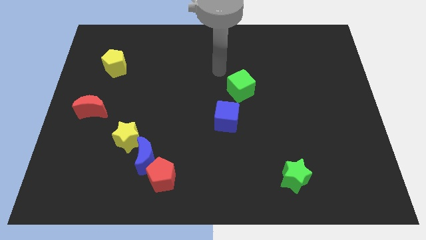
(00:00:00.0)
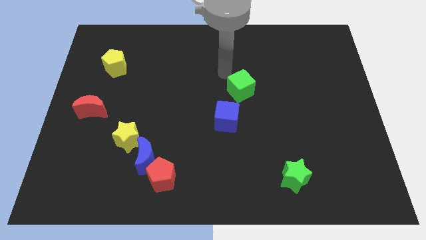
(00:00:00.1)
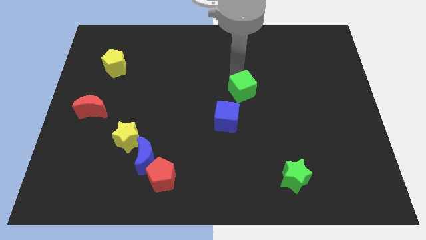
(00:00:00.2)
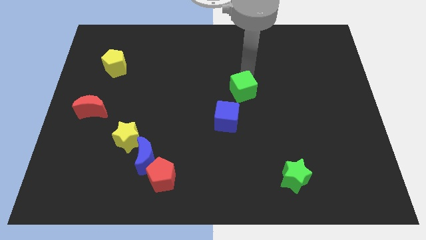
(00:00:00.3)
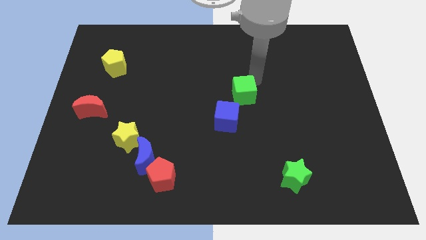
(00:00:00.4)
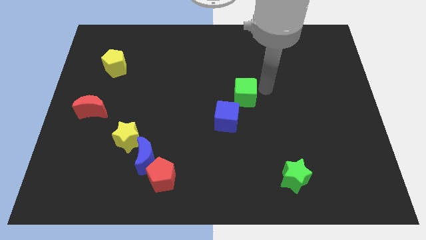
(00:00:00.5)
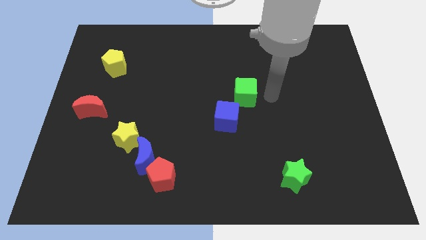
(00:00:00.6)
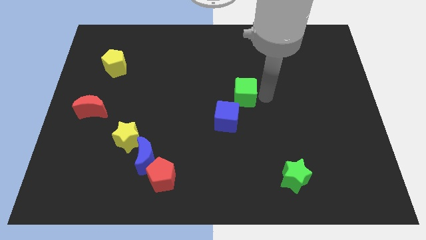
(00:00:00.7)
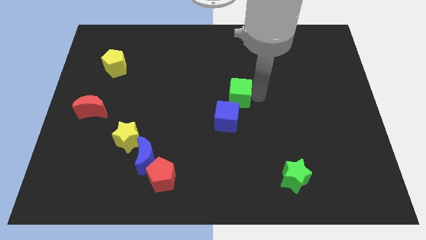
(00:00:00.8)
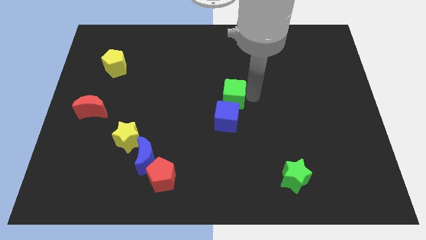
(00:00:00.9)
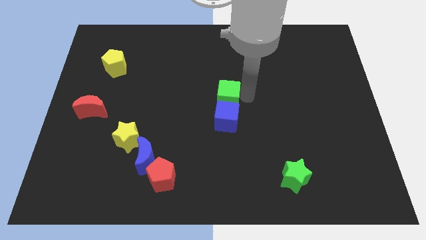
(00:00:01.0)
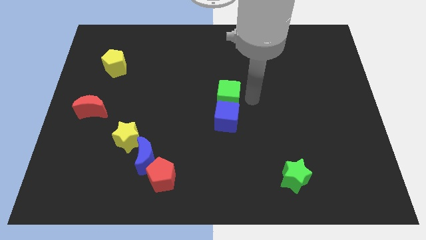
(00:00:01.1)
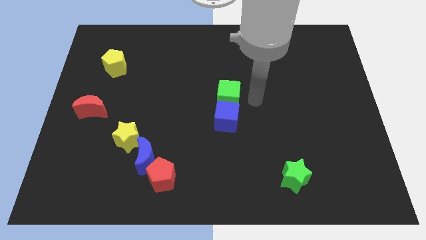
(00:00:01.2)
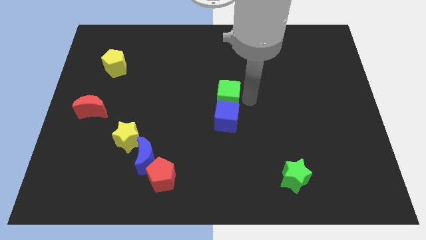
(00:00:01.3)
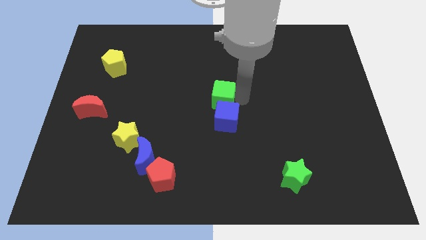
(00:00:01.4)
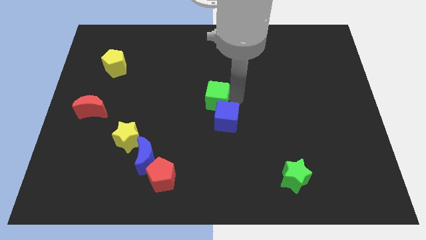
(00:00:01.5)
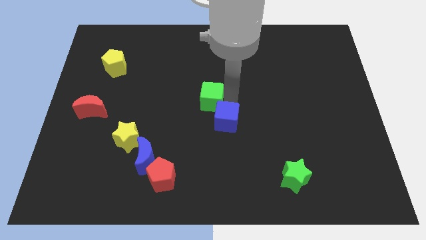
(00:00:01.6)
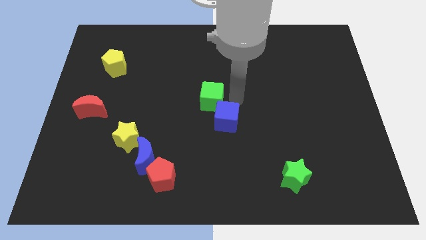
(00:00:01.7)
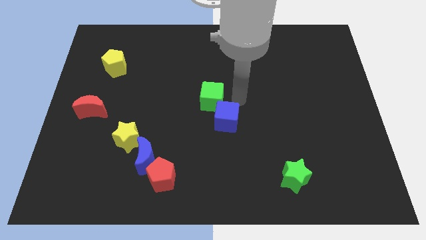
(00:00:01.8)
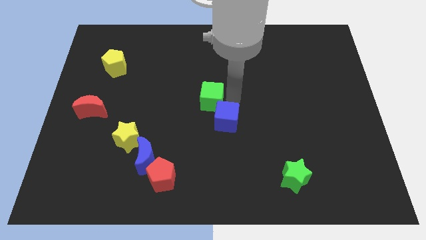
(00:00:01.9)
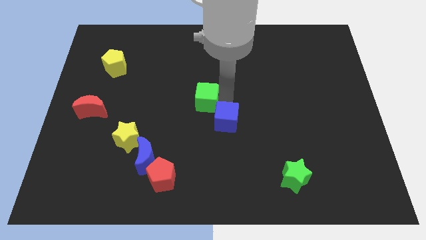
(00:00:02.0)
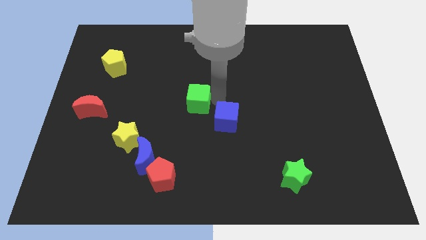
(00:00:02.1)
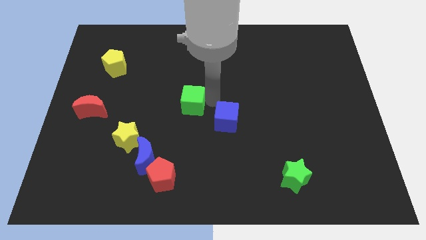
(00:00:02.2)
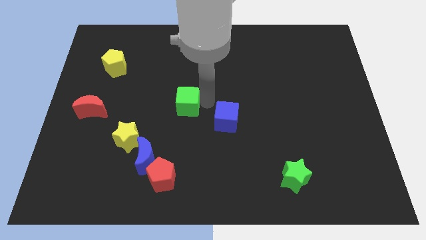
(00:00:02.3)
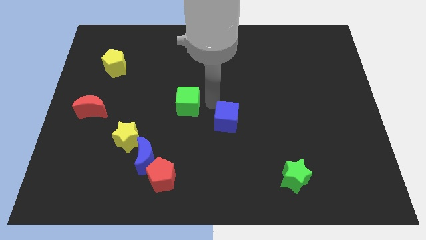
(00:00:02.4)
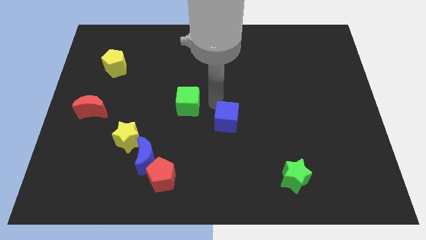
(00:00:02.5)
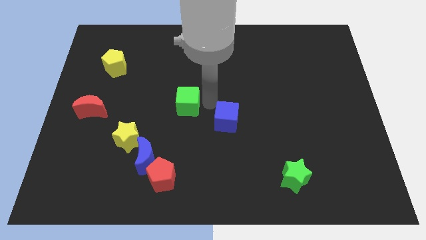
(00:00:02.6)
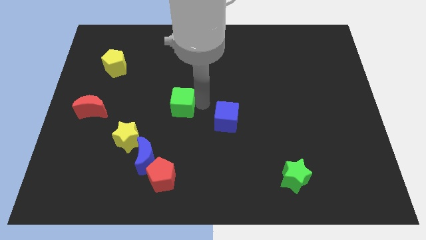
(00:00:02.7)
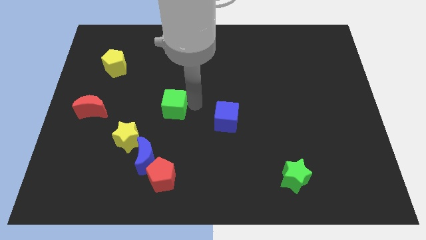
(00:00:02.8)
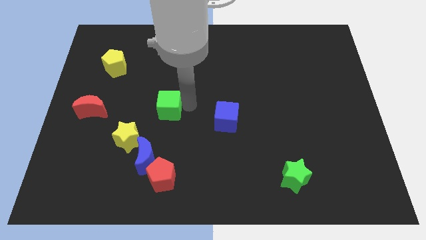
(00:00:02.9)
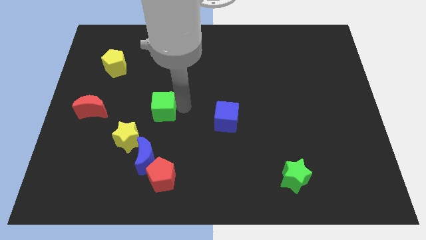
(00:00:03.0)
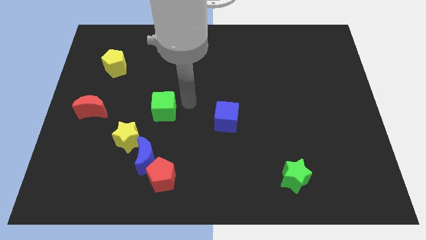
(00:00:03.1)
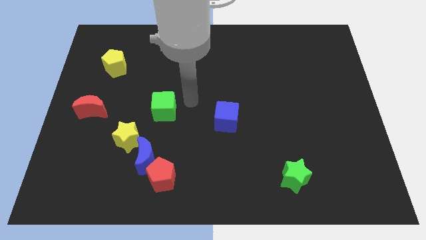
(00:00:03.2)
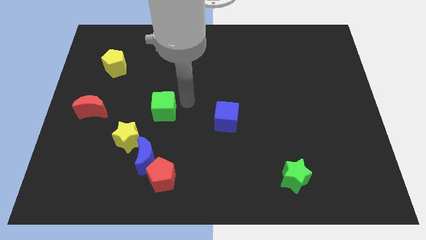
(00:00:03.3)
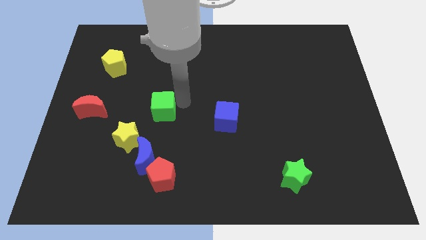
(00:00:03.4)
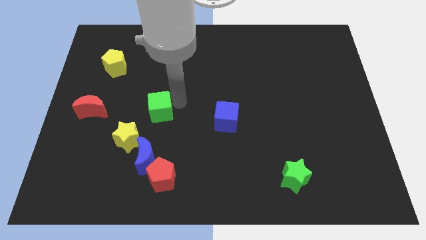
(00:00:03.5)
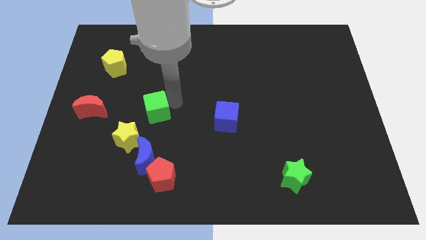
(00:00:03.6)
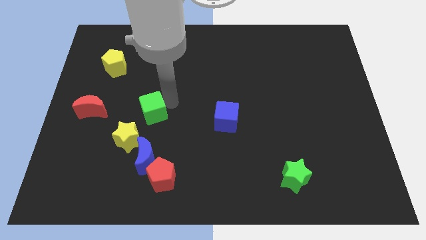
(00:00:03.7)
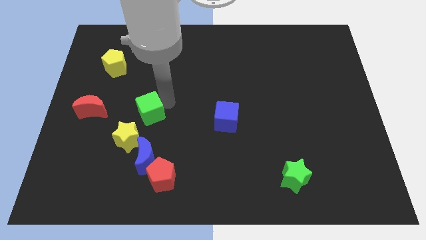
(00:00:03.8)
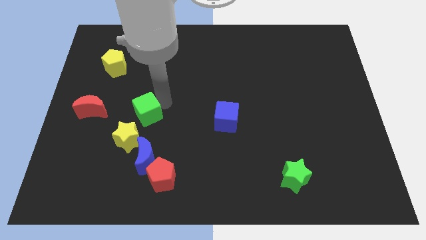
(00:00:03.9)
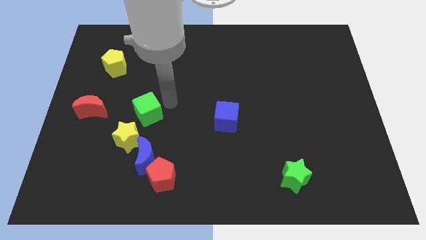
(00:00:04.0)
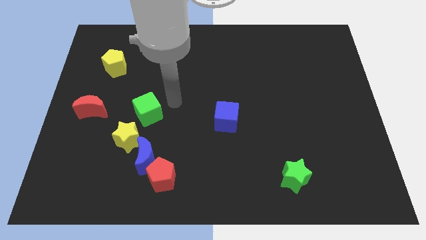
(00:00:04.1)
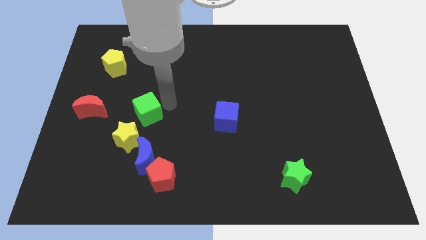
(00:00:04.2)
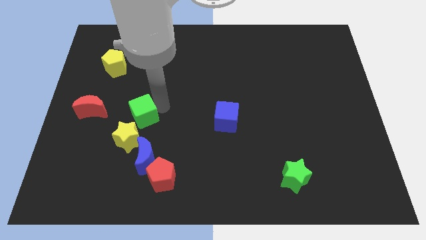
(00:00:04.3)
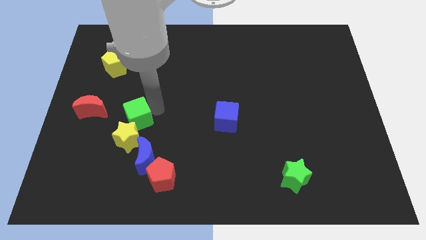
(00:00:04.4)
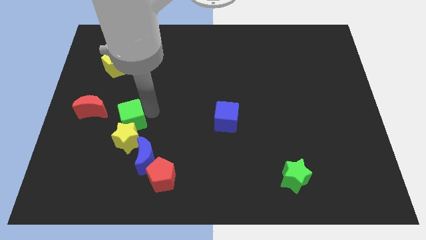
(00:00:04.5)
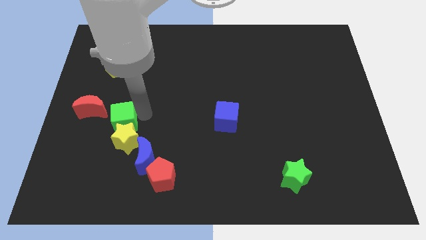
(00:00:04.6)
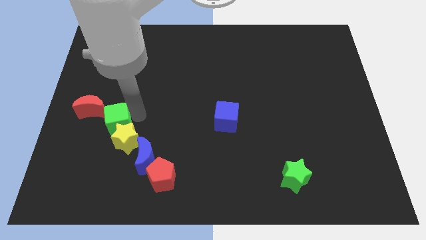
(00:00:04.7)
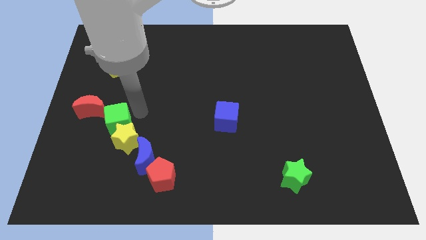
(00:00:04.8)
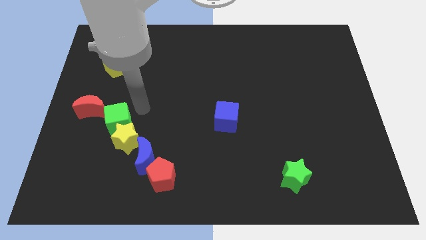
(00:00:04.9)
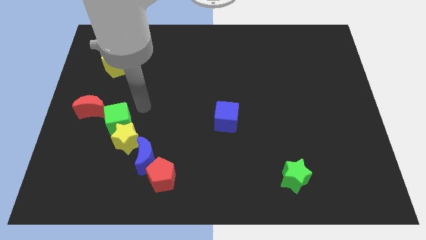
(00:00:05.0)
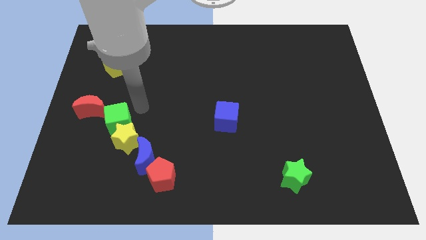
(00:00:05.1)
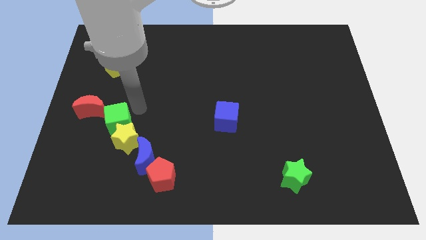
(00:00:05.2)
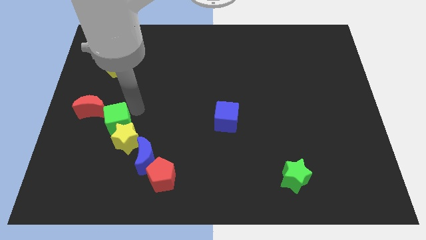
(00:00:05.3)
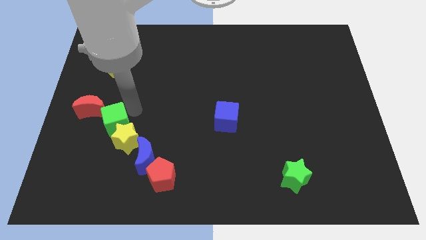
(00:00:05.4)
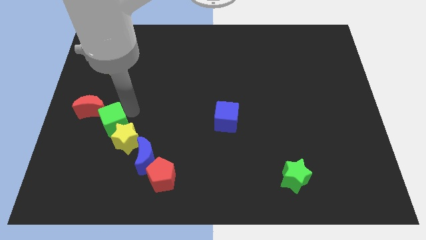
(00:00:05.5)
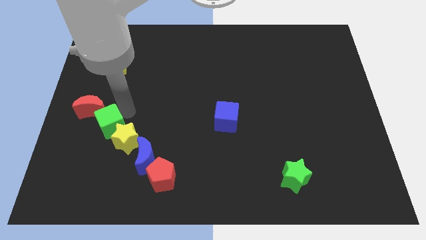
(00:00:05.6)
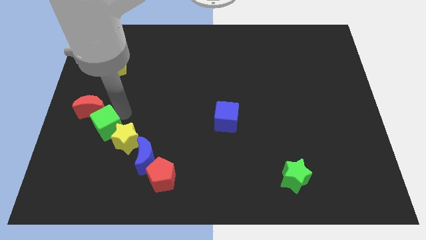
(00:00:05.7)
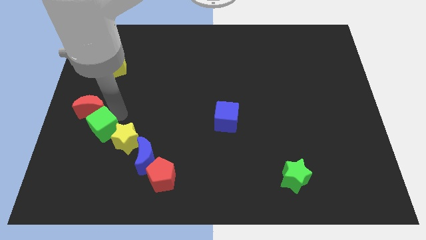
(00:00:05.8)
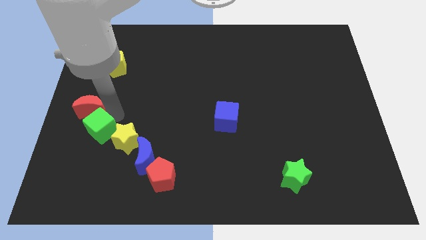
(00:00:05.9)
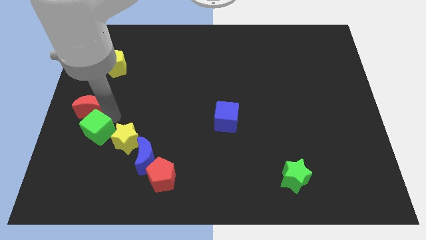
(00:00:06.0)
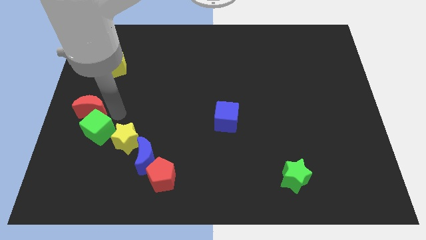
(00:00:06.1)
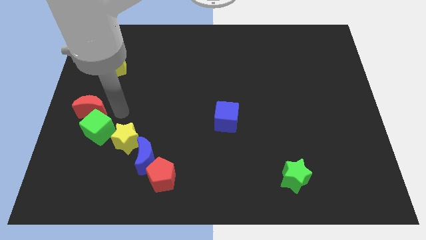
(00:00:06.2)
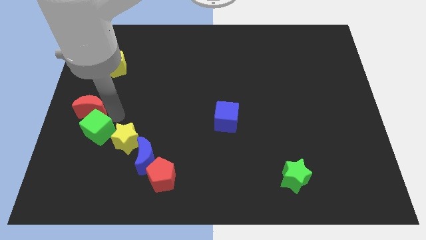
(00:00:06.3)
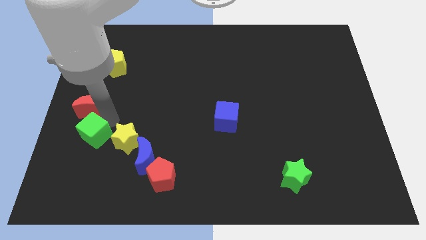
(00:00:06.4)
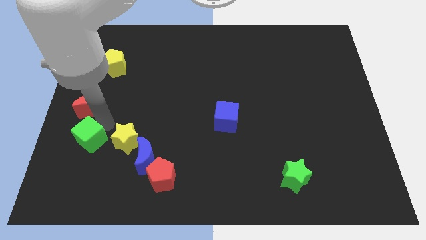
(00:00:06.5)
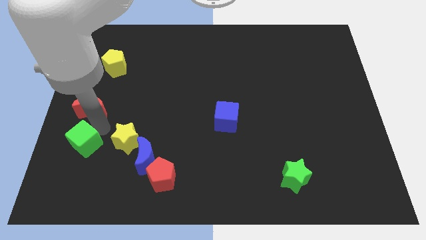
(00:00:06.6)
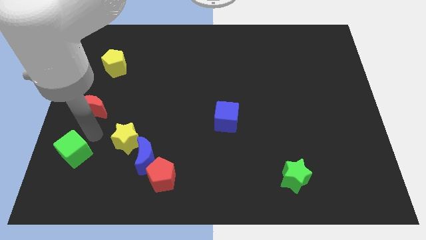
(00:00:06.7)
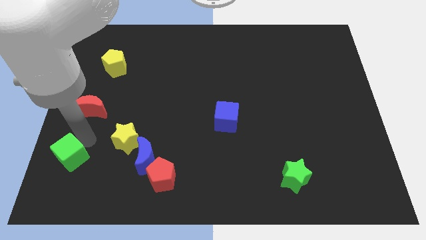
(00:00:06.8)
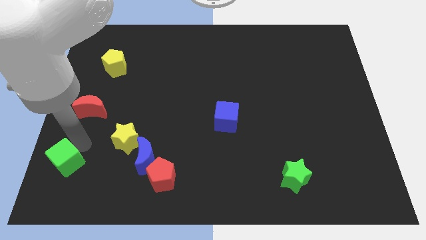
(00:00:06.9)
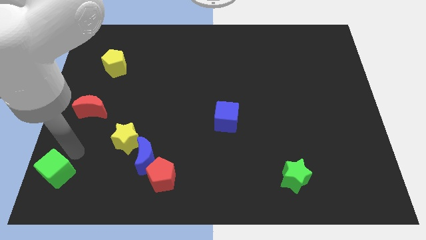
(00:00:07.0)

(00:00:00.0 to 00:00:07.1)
move the green cube to the lower left corner
